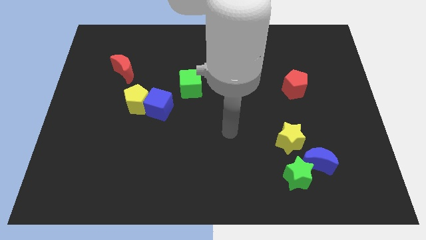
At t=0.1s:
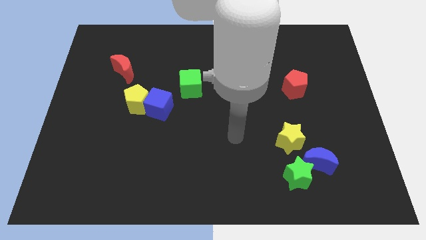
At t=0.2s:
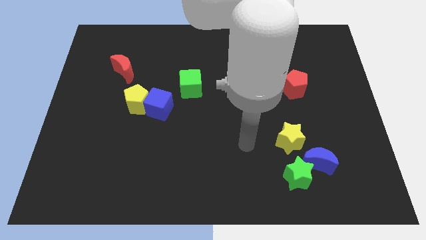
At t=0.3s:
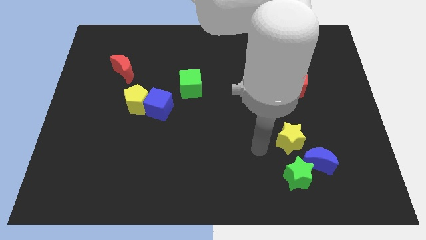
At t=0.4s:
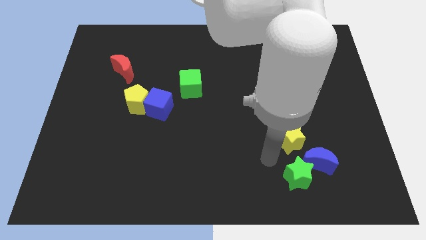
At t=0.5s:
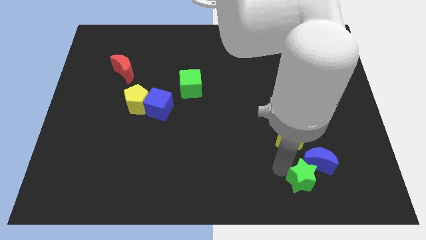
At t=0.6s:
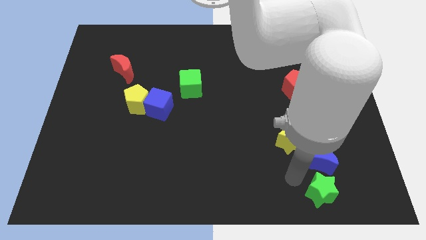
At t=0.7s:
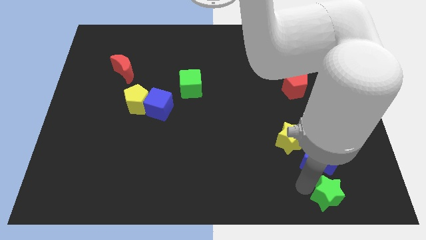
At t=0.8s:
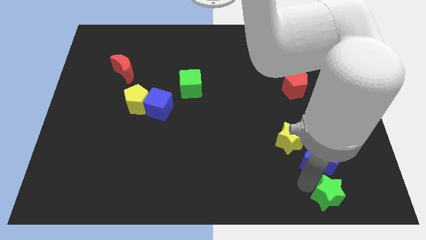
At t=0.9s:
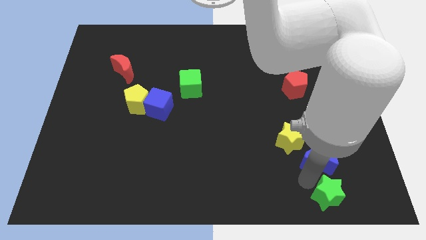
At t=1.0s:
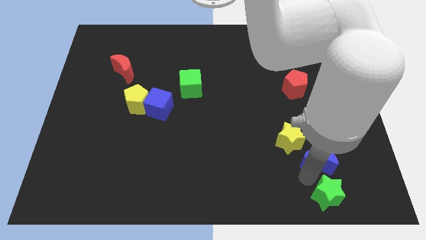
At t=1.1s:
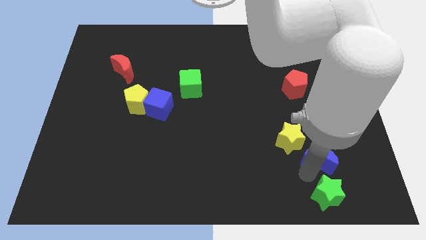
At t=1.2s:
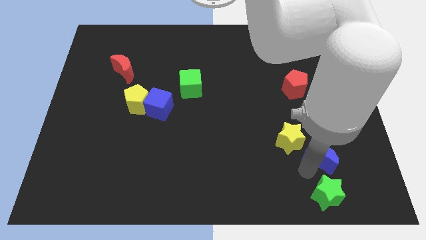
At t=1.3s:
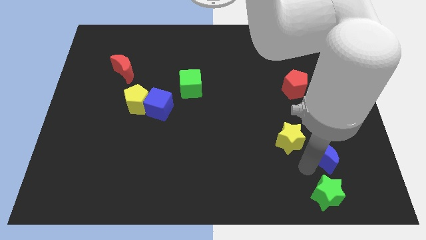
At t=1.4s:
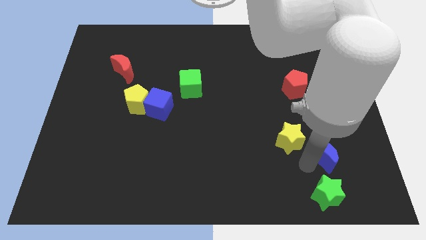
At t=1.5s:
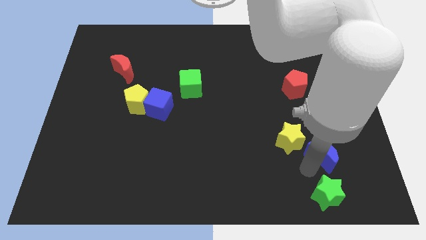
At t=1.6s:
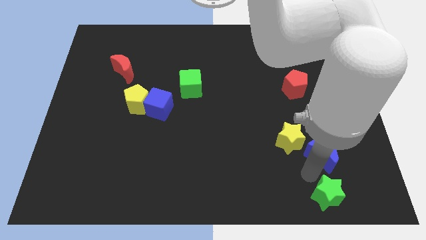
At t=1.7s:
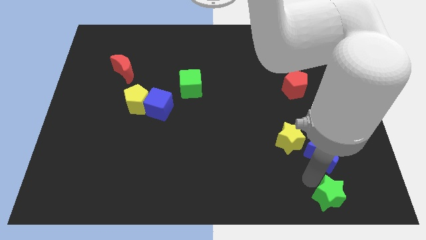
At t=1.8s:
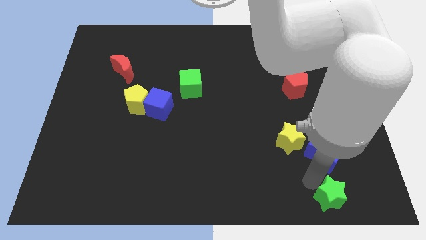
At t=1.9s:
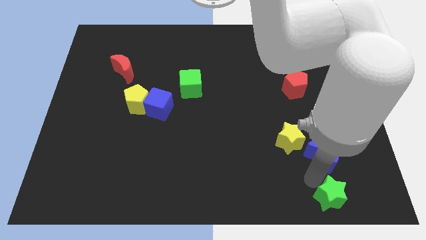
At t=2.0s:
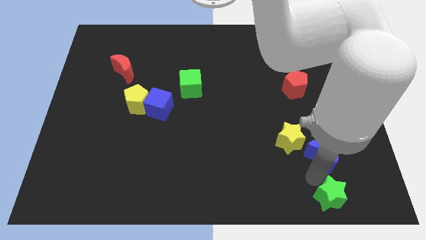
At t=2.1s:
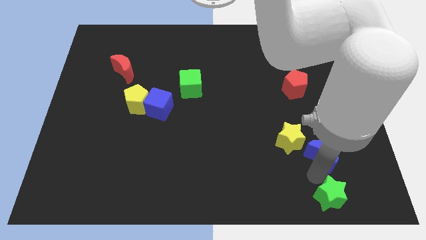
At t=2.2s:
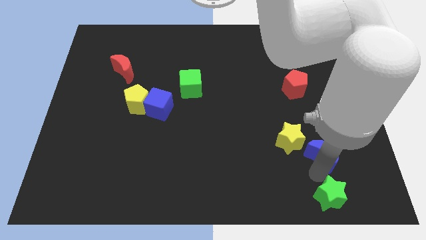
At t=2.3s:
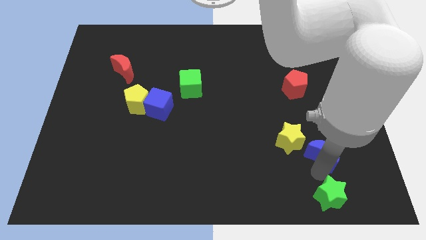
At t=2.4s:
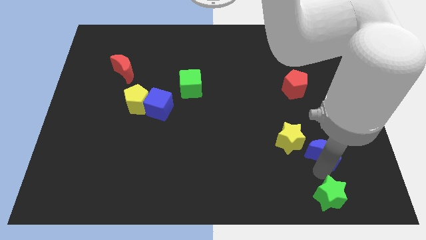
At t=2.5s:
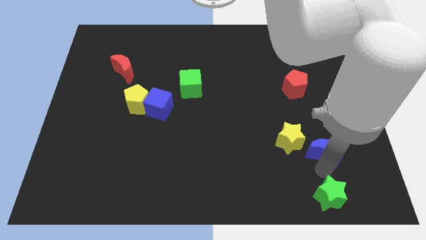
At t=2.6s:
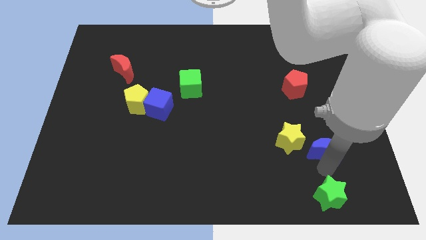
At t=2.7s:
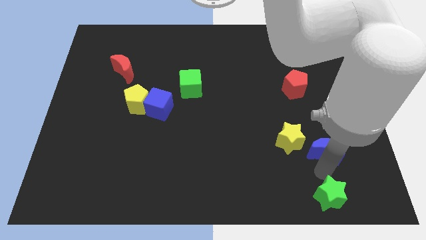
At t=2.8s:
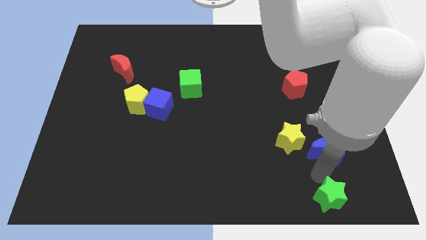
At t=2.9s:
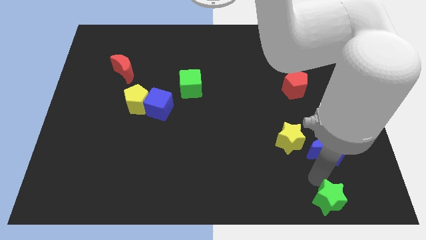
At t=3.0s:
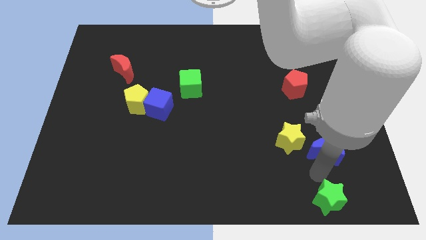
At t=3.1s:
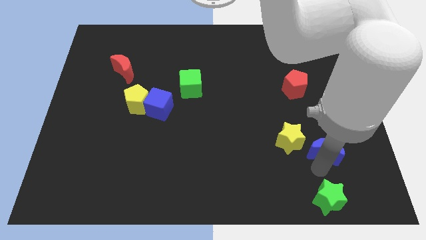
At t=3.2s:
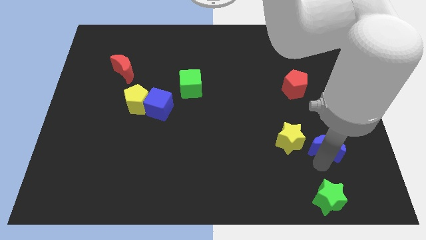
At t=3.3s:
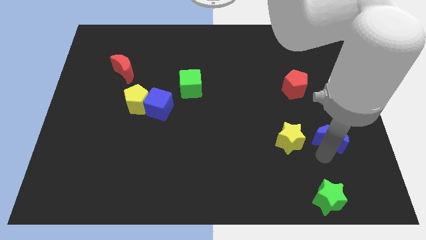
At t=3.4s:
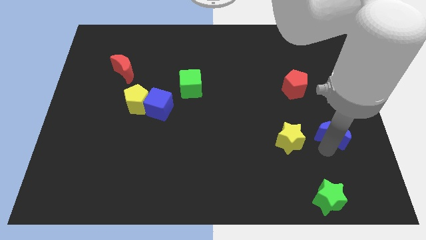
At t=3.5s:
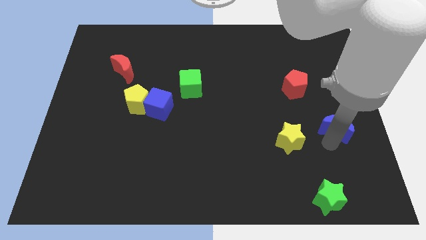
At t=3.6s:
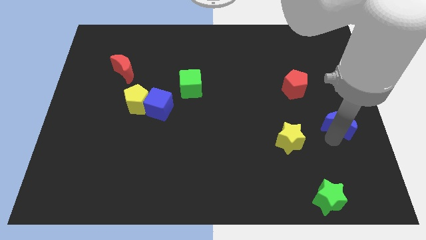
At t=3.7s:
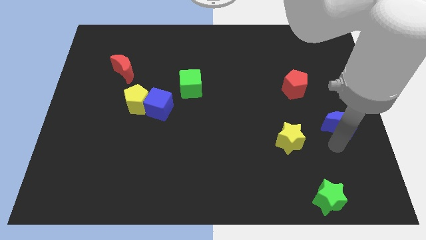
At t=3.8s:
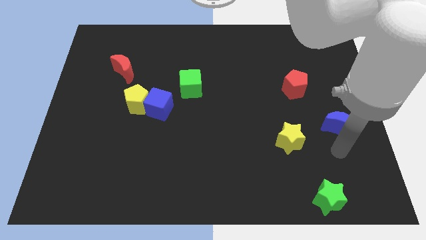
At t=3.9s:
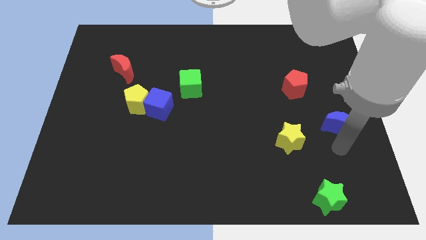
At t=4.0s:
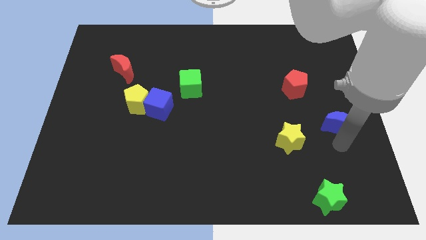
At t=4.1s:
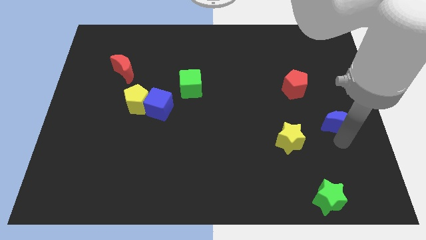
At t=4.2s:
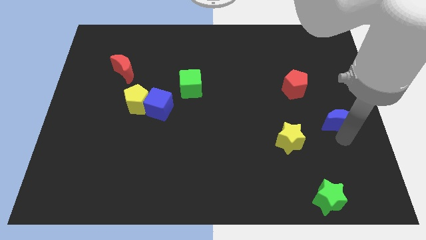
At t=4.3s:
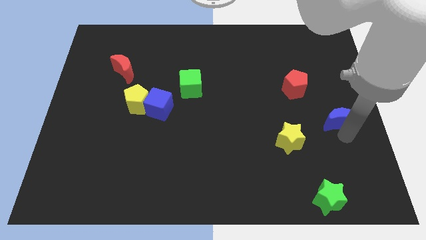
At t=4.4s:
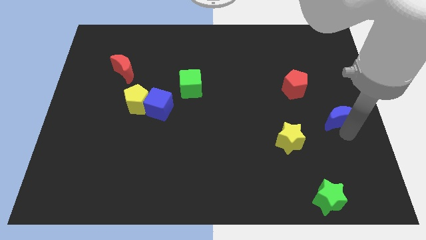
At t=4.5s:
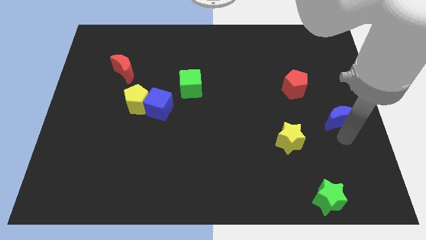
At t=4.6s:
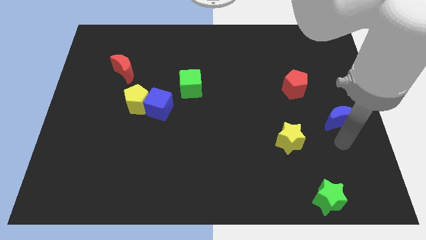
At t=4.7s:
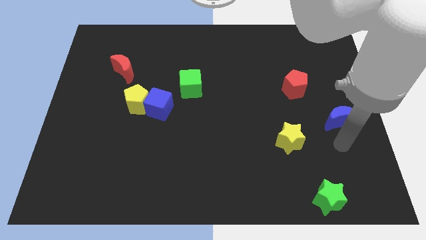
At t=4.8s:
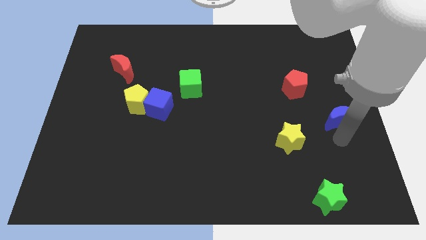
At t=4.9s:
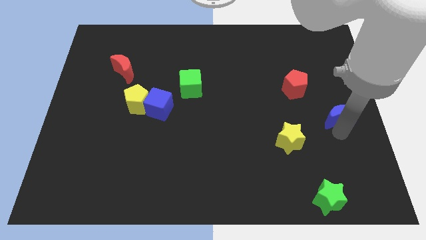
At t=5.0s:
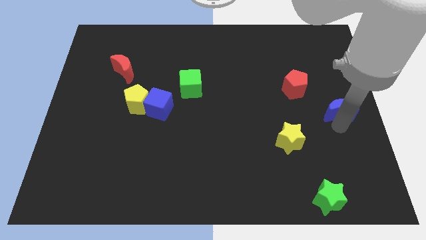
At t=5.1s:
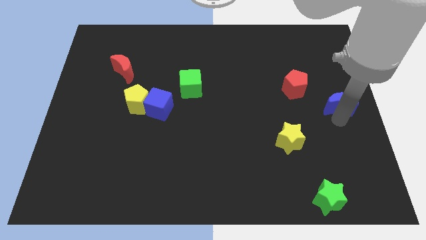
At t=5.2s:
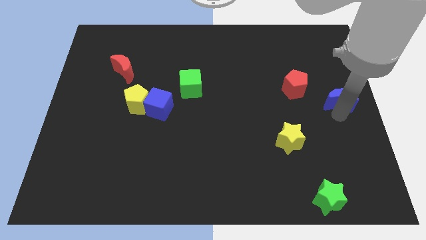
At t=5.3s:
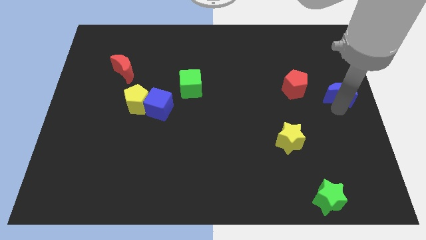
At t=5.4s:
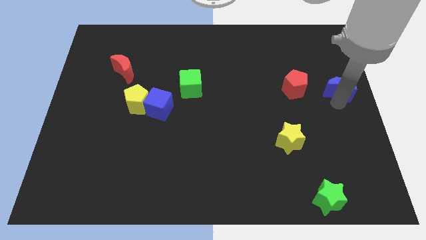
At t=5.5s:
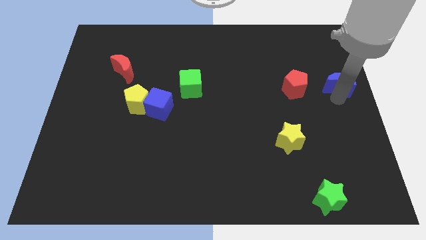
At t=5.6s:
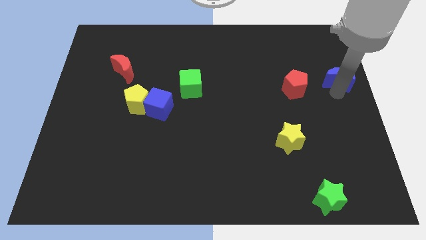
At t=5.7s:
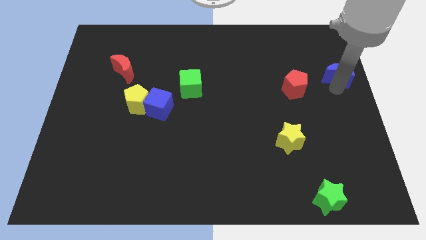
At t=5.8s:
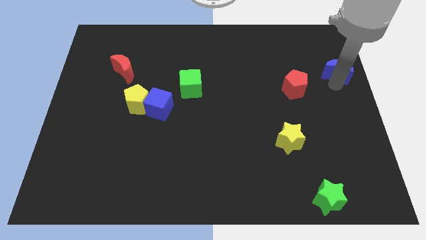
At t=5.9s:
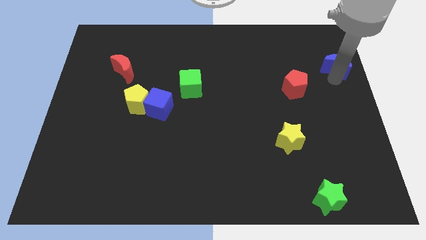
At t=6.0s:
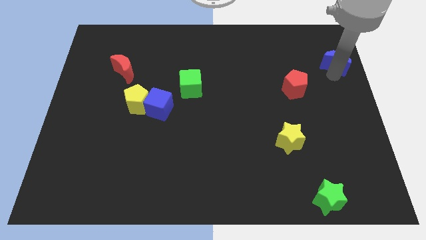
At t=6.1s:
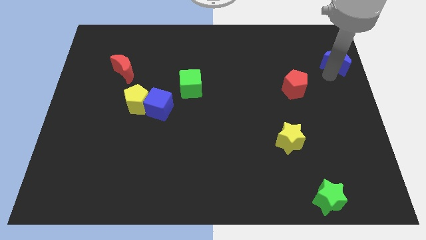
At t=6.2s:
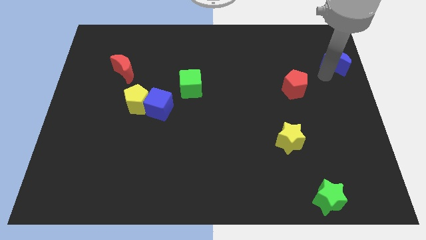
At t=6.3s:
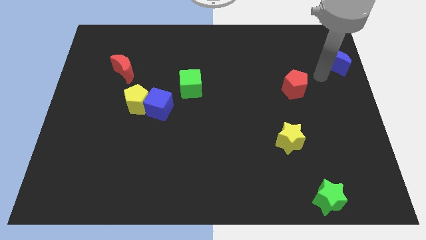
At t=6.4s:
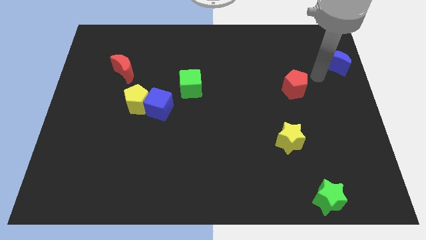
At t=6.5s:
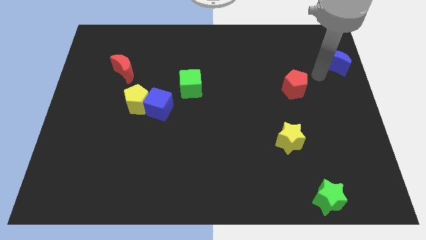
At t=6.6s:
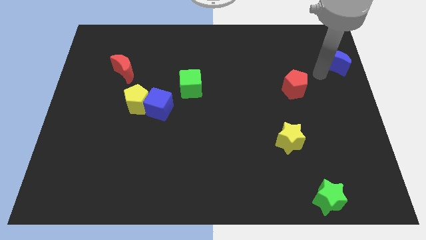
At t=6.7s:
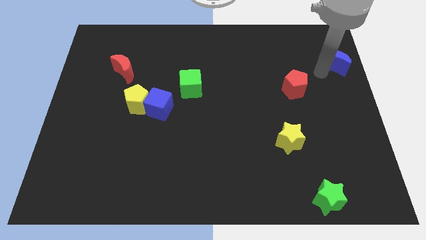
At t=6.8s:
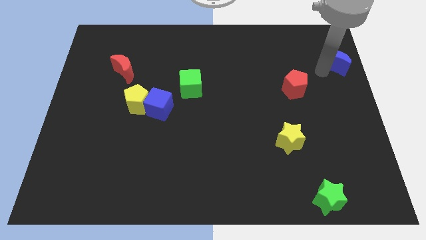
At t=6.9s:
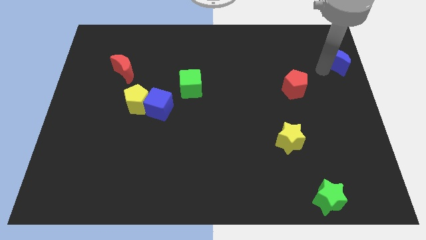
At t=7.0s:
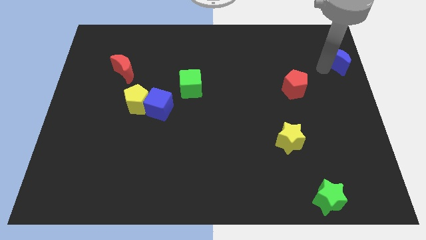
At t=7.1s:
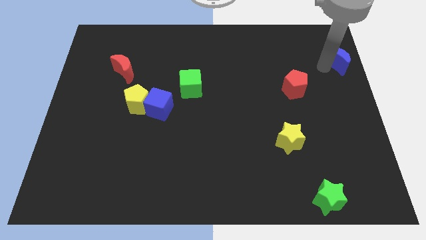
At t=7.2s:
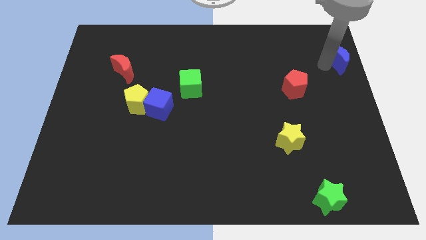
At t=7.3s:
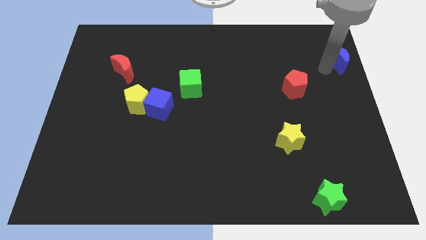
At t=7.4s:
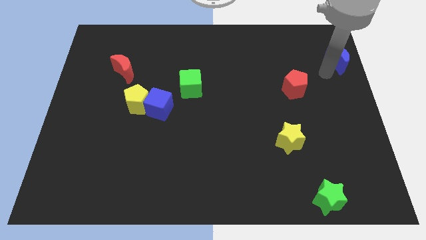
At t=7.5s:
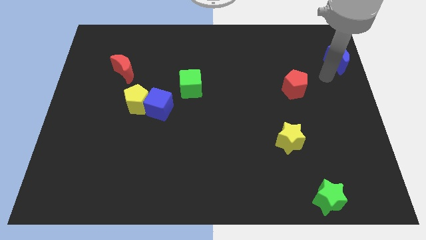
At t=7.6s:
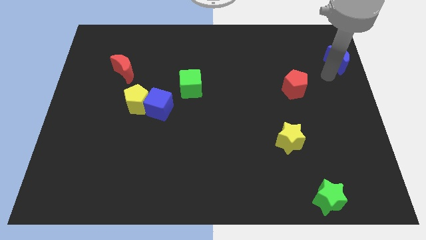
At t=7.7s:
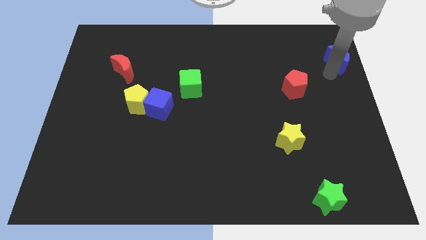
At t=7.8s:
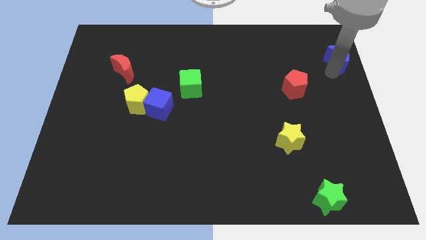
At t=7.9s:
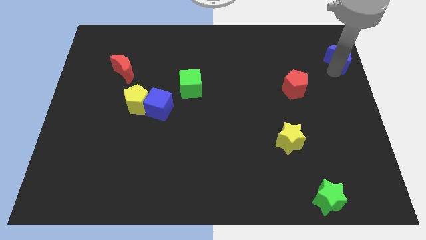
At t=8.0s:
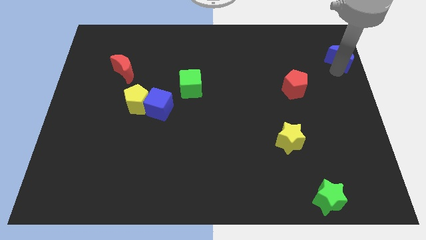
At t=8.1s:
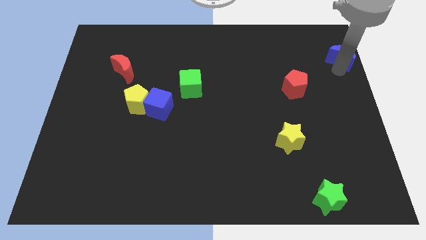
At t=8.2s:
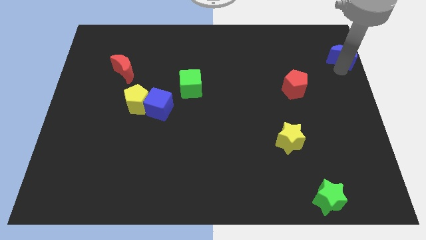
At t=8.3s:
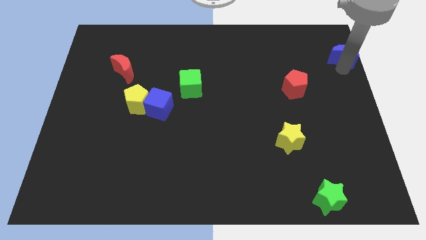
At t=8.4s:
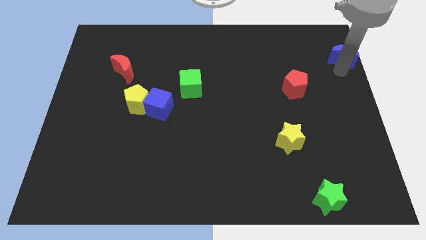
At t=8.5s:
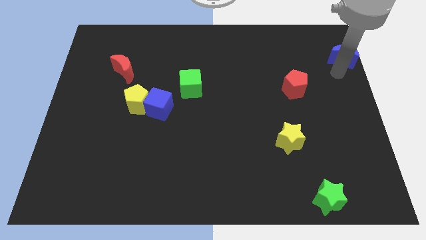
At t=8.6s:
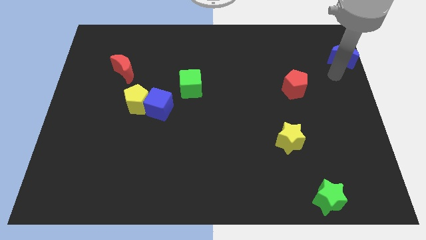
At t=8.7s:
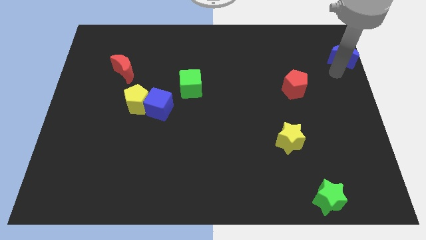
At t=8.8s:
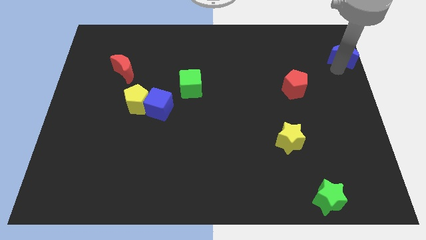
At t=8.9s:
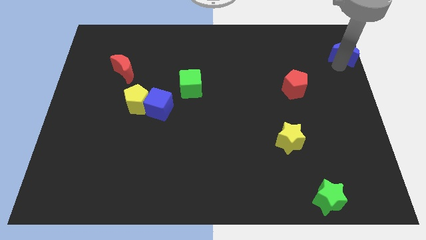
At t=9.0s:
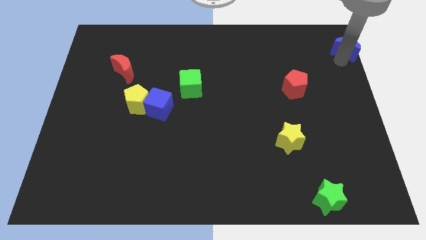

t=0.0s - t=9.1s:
slide the blue moon to the top right
